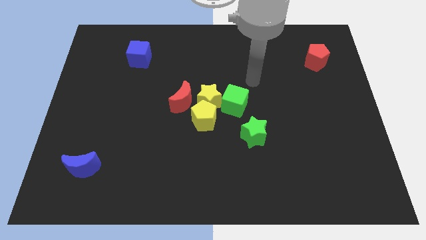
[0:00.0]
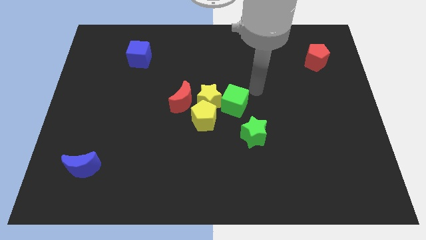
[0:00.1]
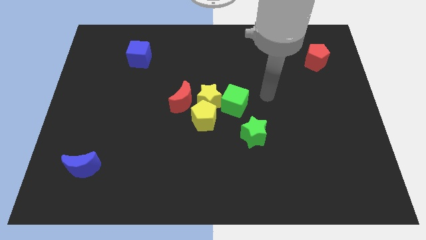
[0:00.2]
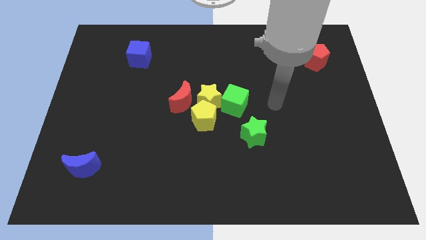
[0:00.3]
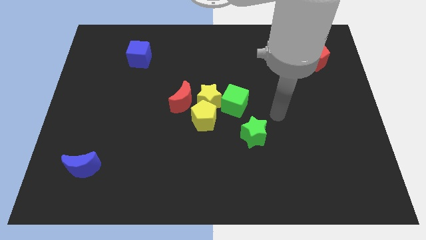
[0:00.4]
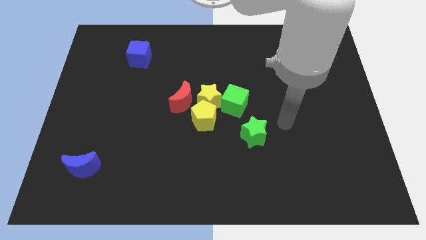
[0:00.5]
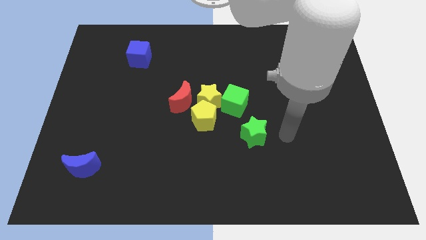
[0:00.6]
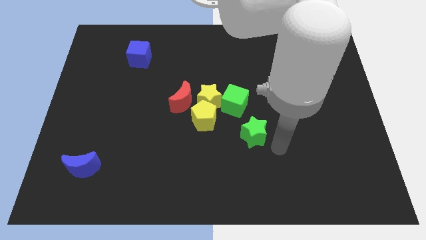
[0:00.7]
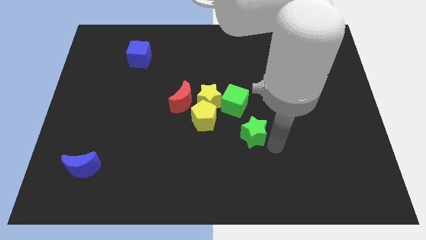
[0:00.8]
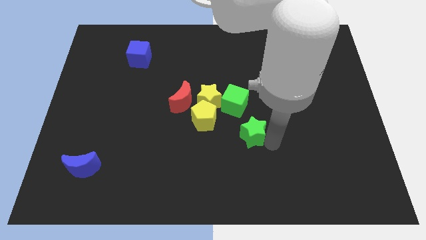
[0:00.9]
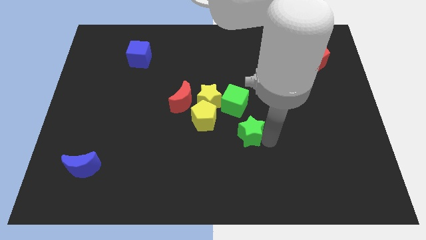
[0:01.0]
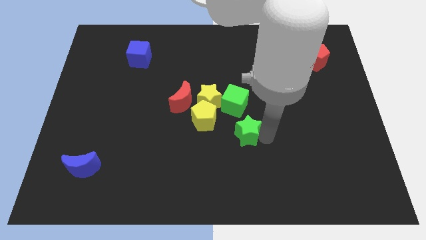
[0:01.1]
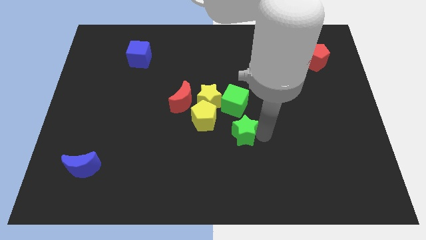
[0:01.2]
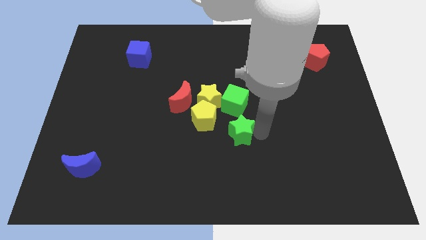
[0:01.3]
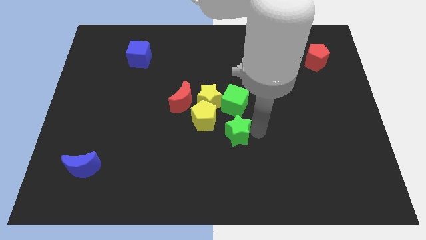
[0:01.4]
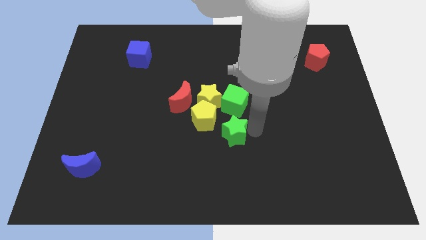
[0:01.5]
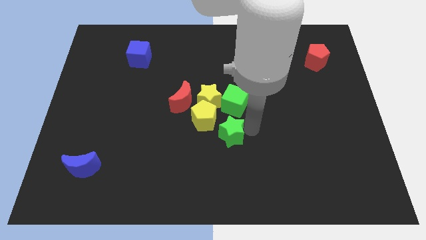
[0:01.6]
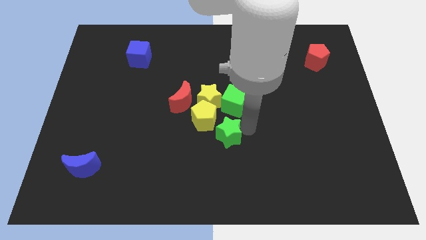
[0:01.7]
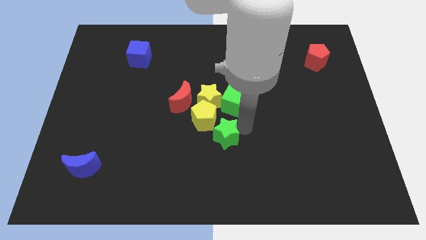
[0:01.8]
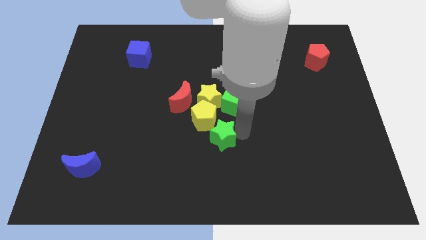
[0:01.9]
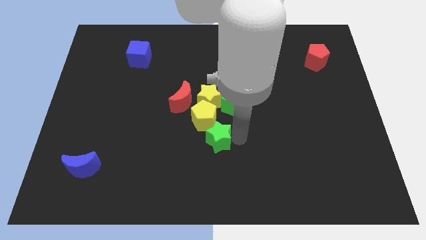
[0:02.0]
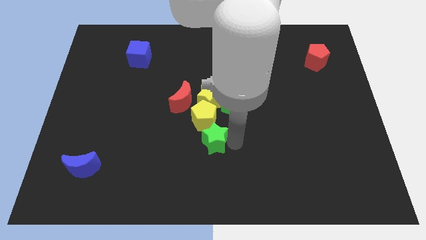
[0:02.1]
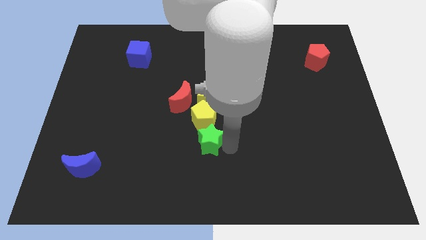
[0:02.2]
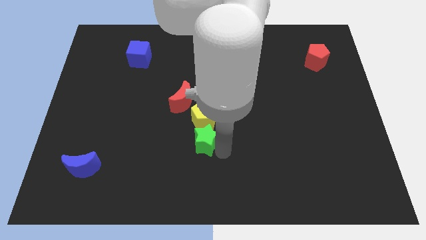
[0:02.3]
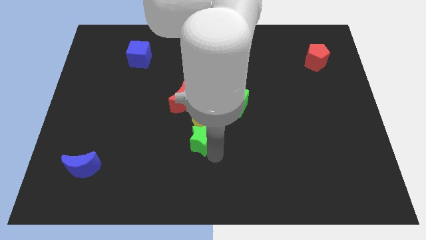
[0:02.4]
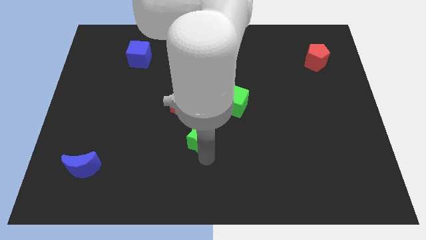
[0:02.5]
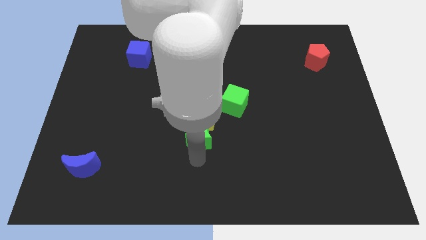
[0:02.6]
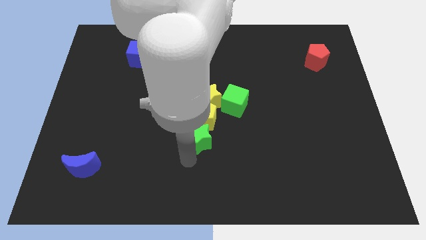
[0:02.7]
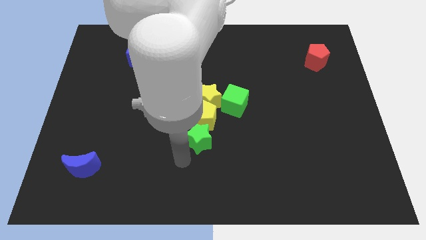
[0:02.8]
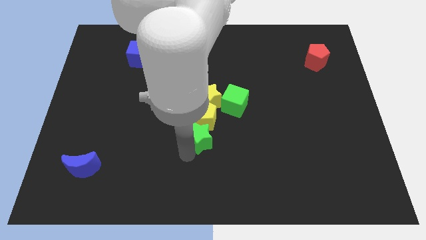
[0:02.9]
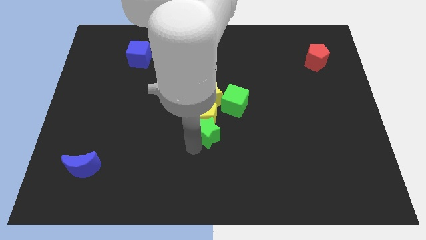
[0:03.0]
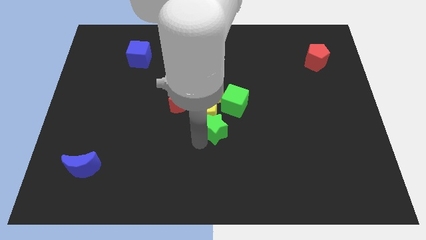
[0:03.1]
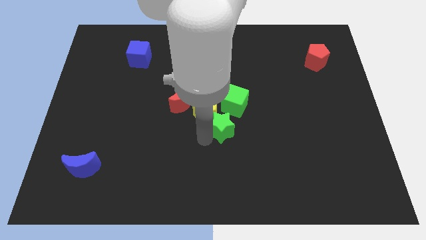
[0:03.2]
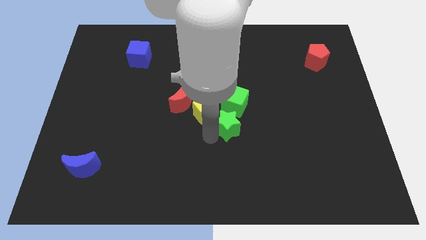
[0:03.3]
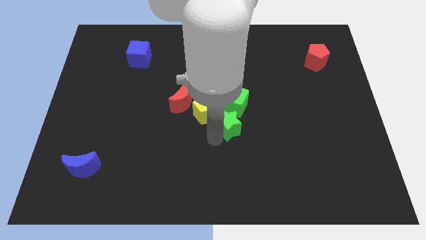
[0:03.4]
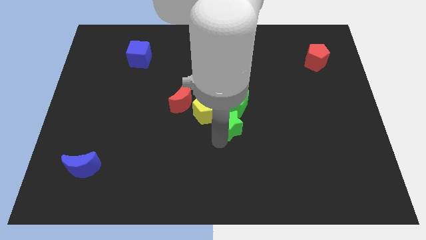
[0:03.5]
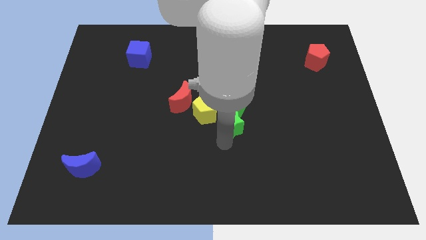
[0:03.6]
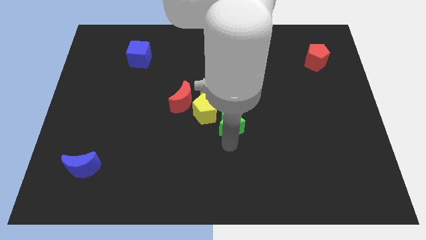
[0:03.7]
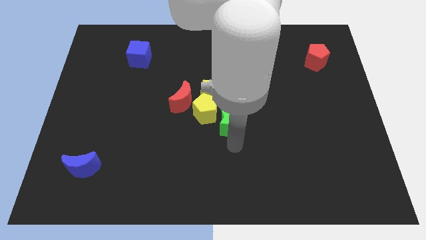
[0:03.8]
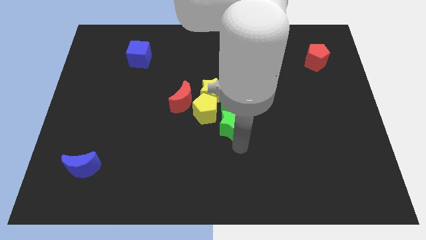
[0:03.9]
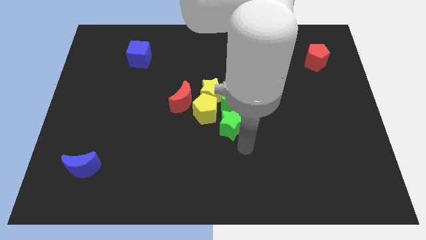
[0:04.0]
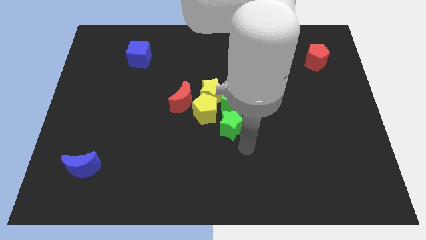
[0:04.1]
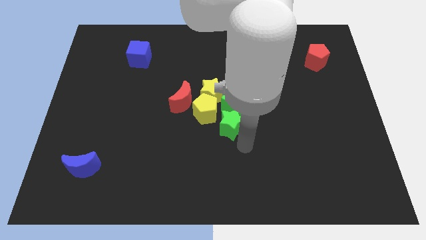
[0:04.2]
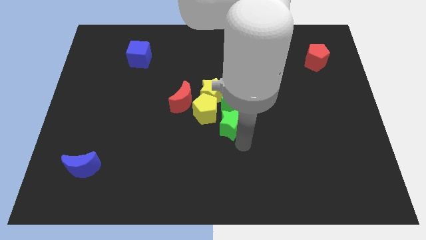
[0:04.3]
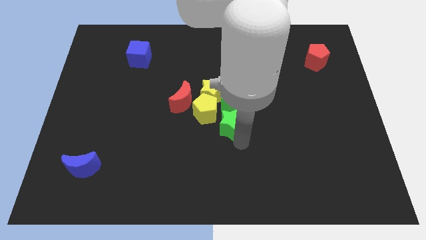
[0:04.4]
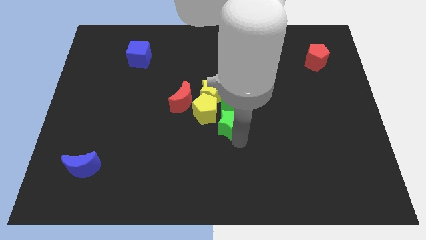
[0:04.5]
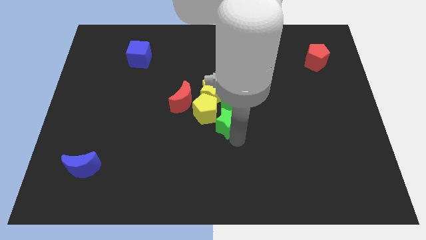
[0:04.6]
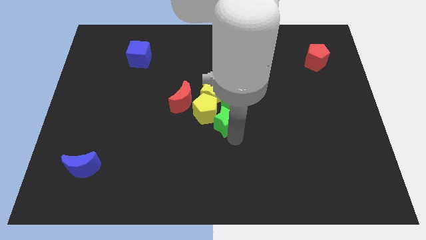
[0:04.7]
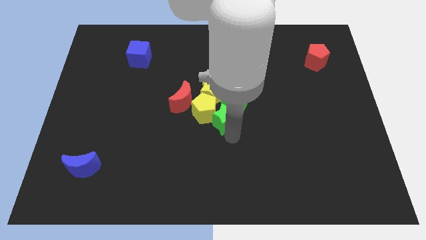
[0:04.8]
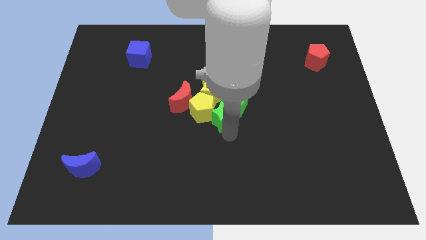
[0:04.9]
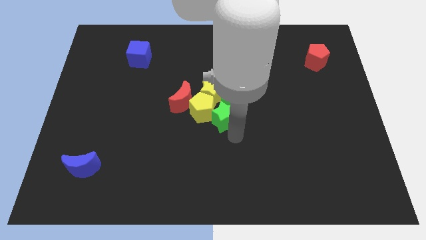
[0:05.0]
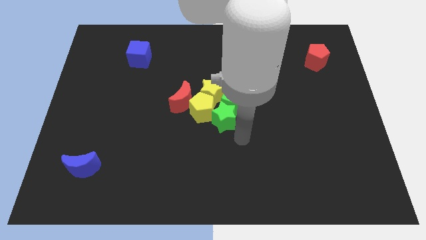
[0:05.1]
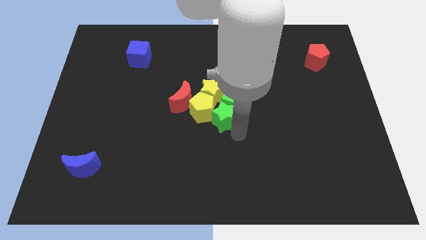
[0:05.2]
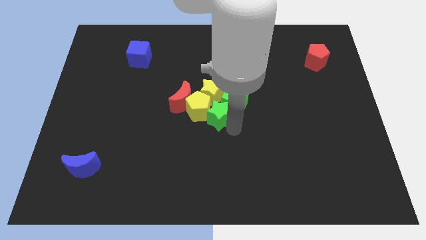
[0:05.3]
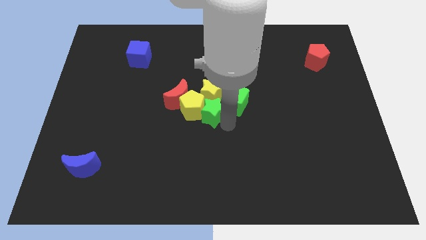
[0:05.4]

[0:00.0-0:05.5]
push the green star next to the yellow star

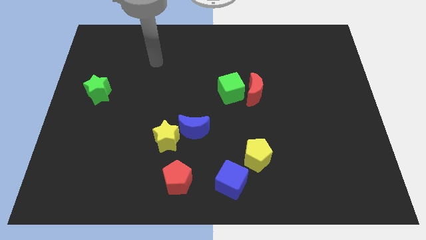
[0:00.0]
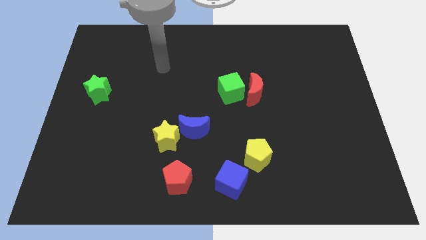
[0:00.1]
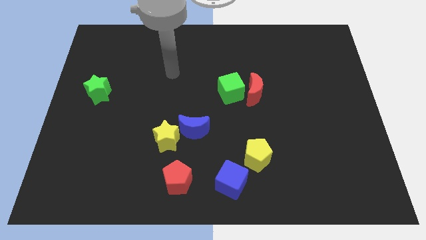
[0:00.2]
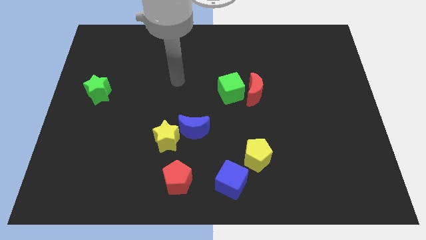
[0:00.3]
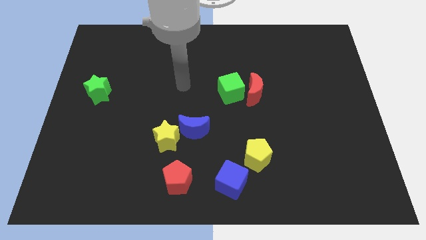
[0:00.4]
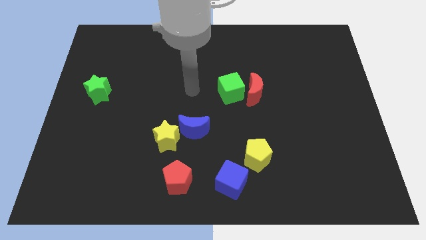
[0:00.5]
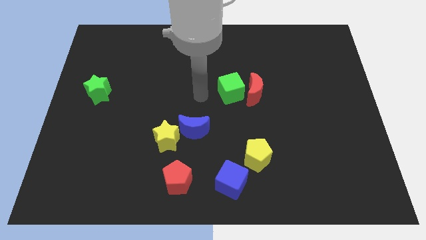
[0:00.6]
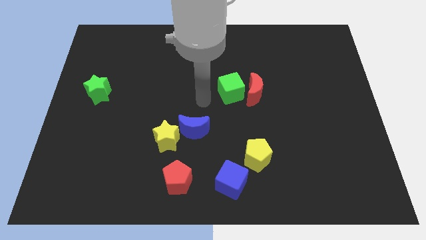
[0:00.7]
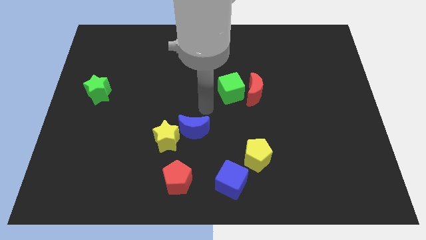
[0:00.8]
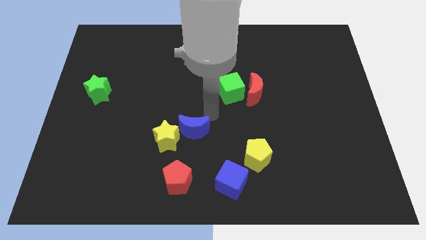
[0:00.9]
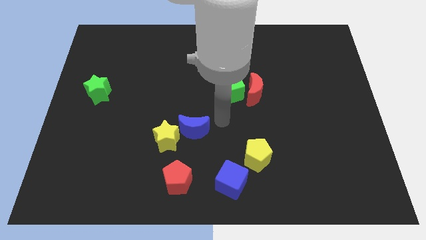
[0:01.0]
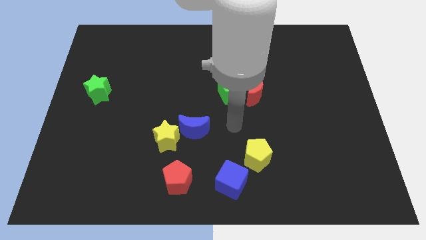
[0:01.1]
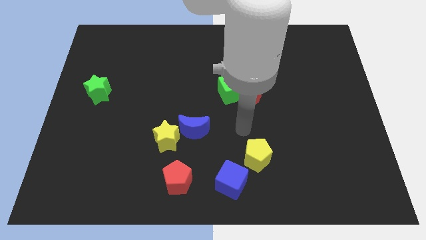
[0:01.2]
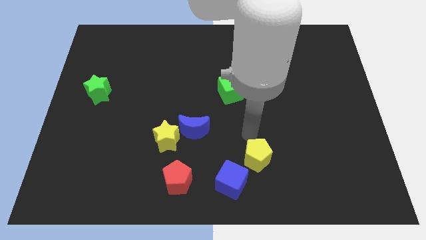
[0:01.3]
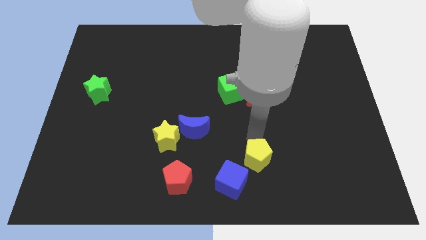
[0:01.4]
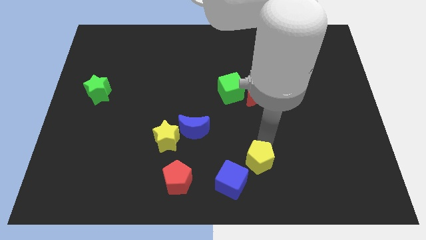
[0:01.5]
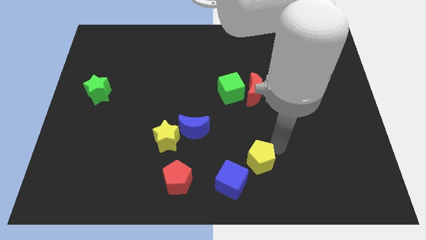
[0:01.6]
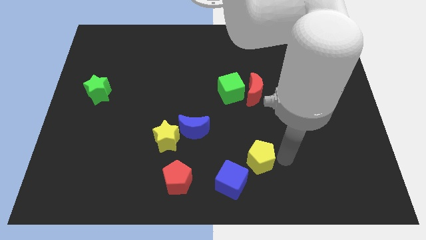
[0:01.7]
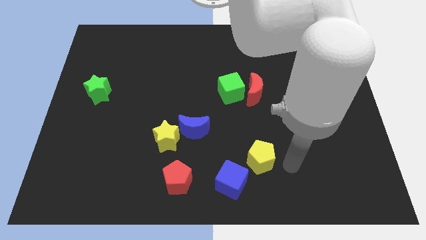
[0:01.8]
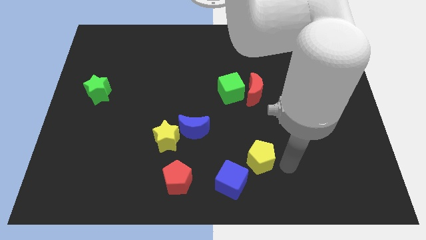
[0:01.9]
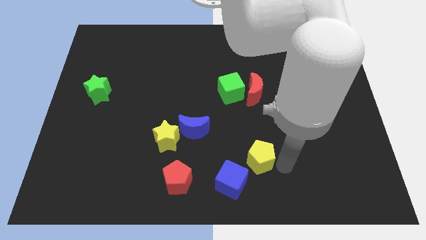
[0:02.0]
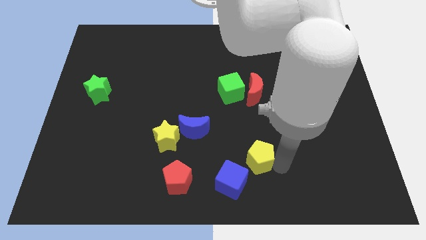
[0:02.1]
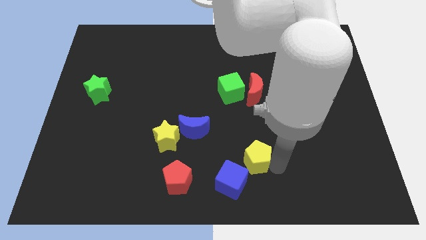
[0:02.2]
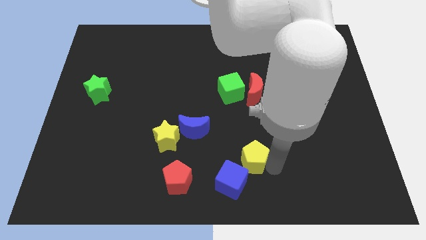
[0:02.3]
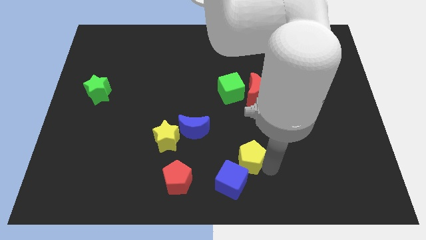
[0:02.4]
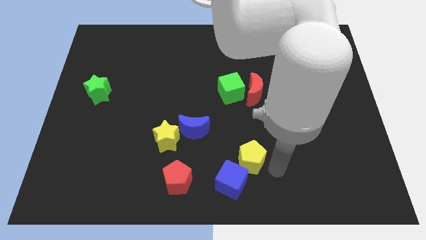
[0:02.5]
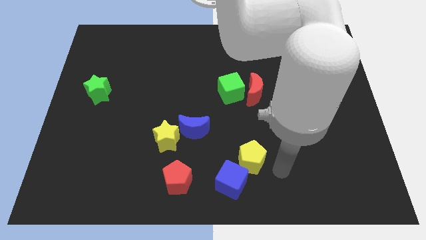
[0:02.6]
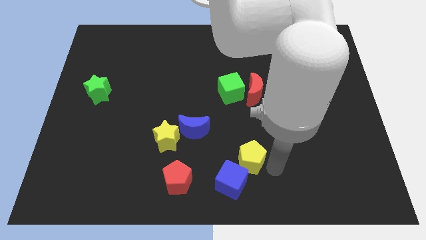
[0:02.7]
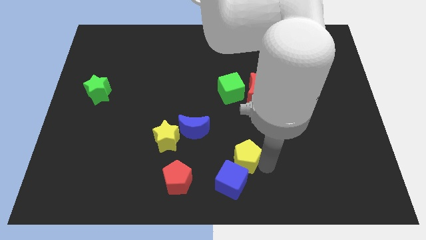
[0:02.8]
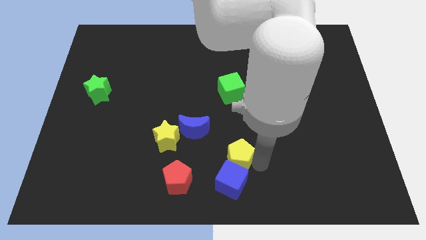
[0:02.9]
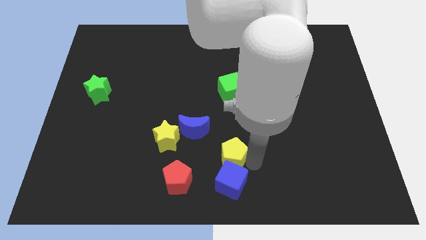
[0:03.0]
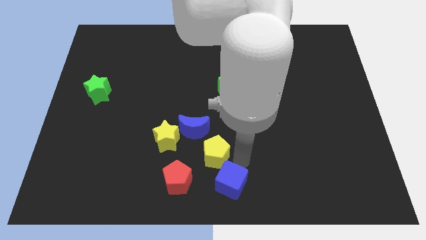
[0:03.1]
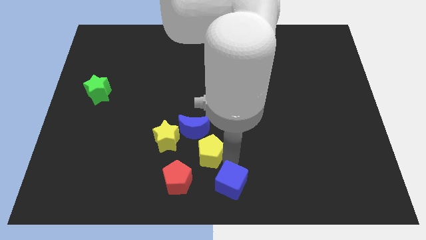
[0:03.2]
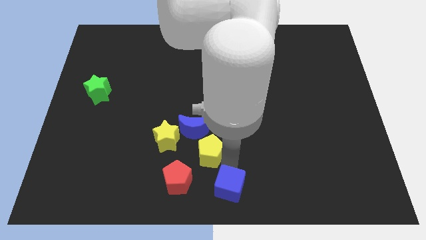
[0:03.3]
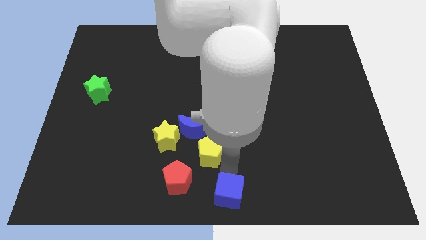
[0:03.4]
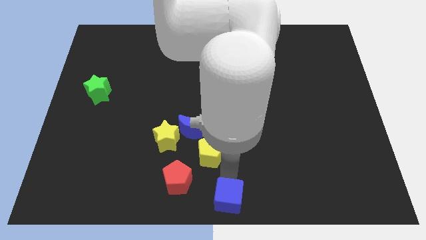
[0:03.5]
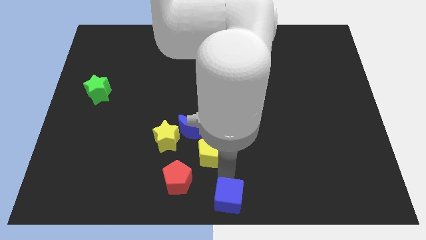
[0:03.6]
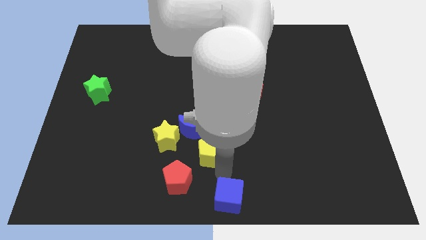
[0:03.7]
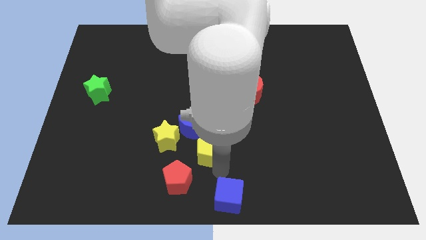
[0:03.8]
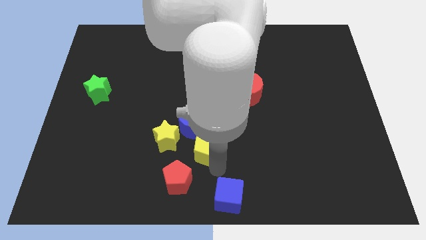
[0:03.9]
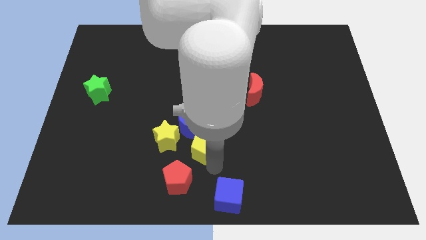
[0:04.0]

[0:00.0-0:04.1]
put the yellow pentagon towards the blue moon
